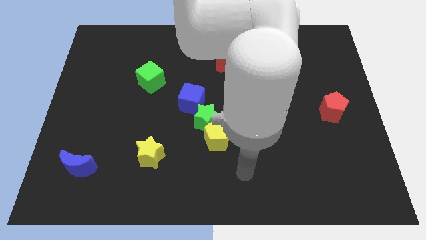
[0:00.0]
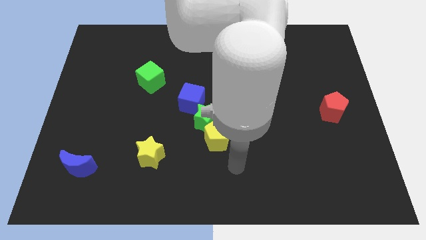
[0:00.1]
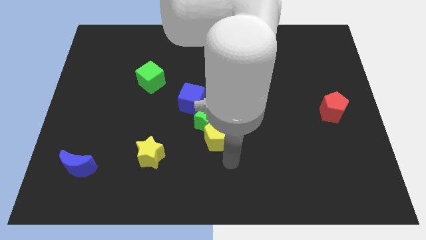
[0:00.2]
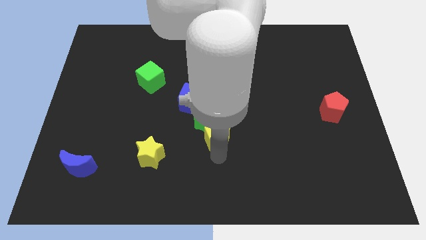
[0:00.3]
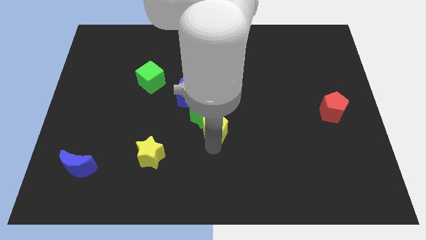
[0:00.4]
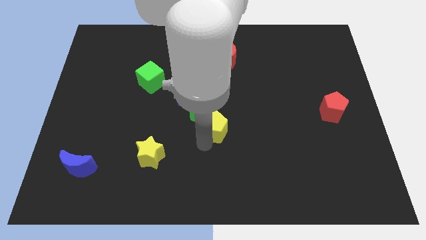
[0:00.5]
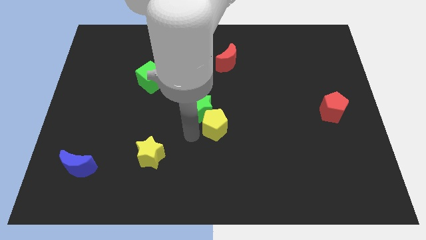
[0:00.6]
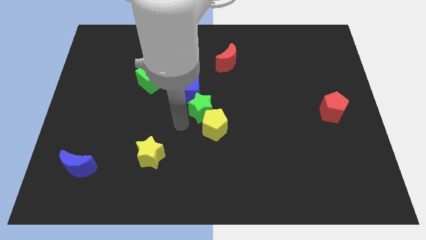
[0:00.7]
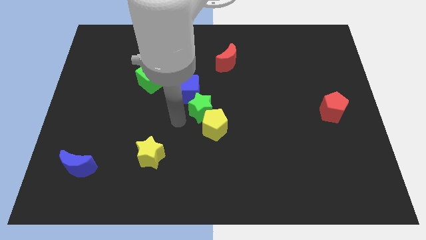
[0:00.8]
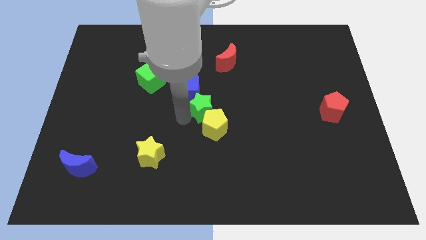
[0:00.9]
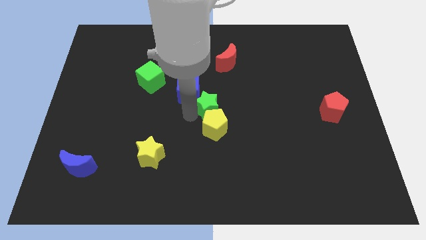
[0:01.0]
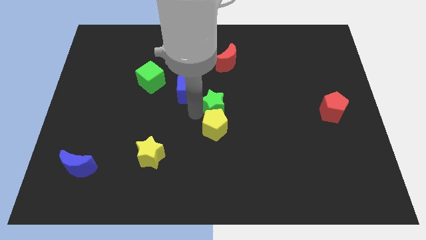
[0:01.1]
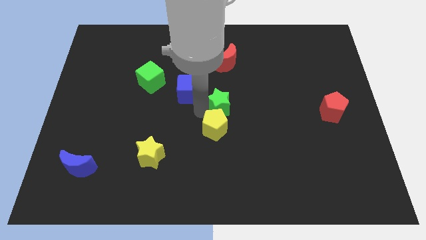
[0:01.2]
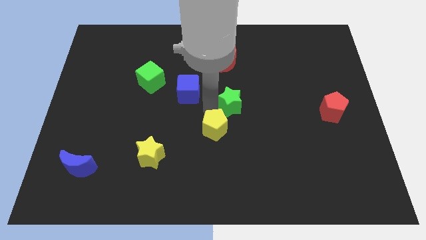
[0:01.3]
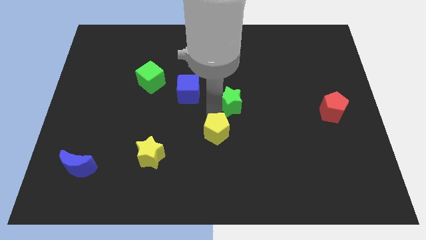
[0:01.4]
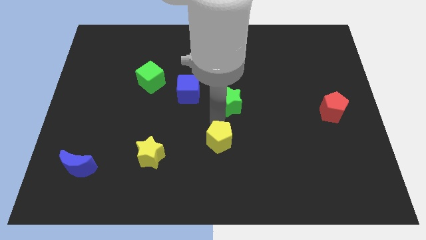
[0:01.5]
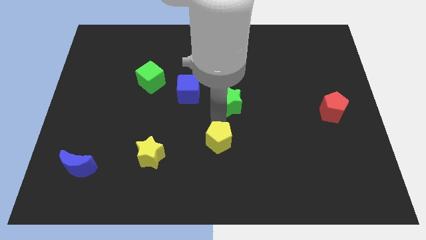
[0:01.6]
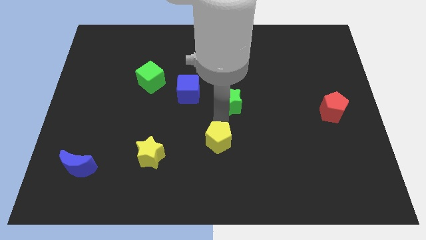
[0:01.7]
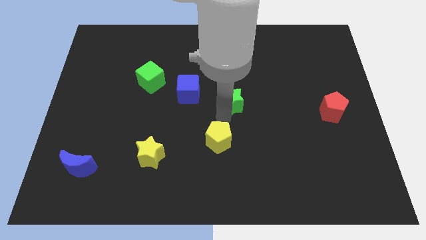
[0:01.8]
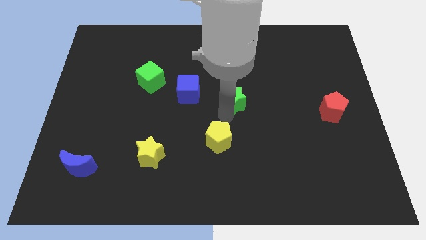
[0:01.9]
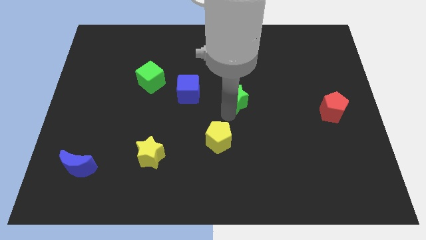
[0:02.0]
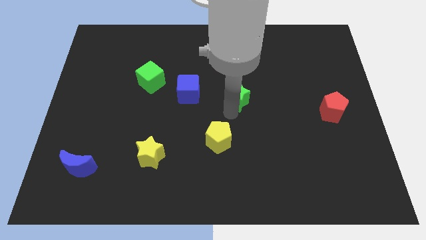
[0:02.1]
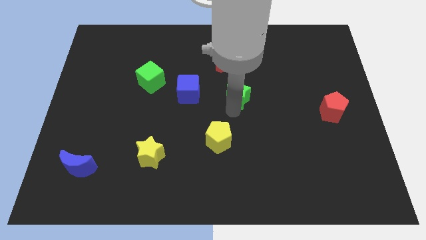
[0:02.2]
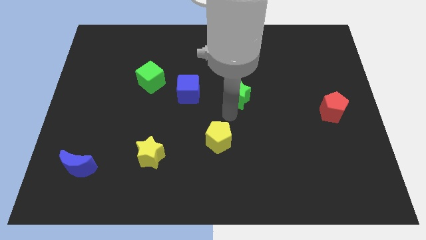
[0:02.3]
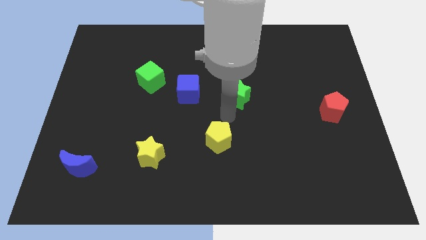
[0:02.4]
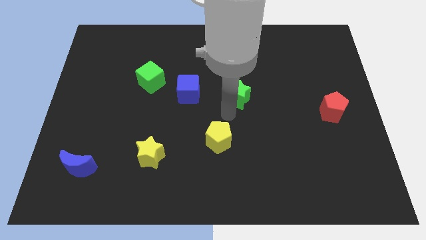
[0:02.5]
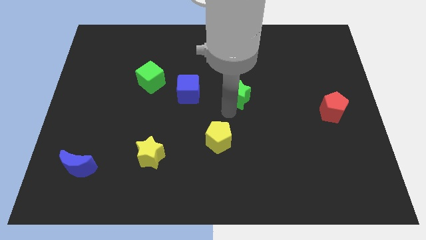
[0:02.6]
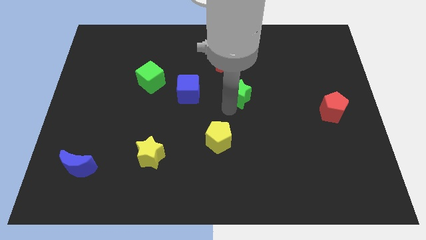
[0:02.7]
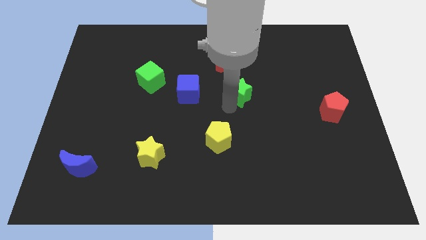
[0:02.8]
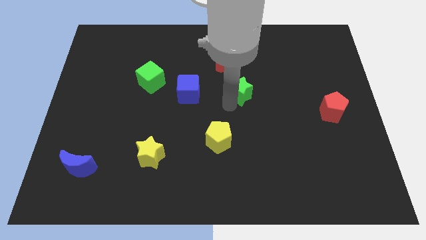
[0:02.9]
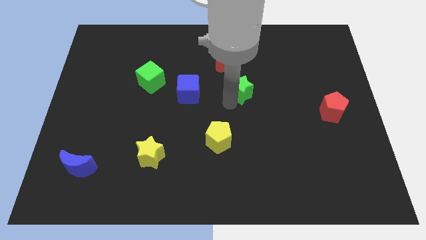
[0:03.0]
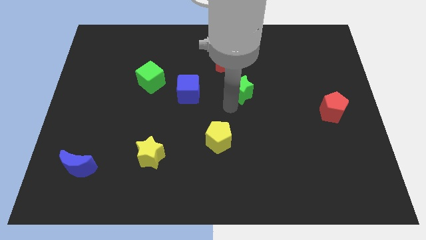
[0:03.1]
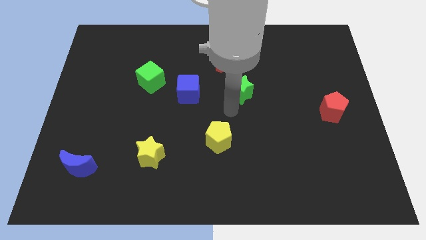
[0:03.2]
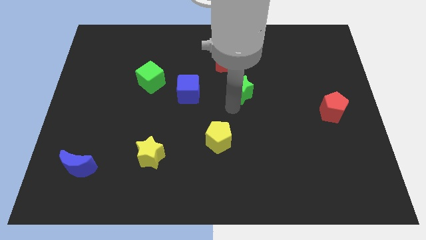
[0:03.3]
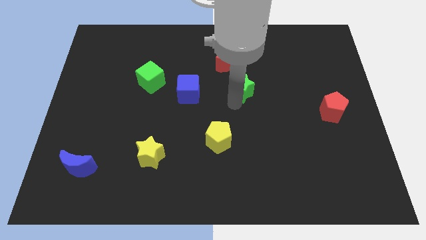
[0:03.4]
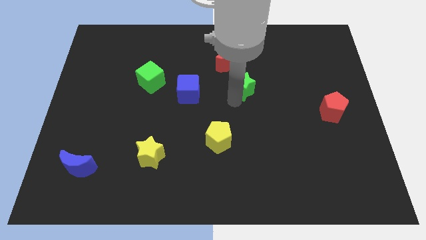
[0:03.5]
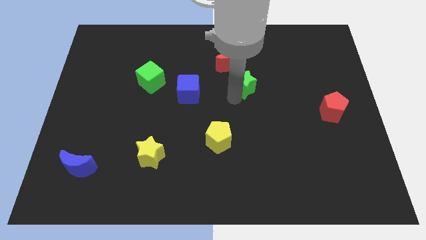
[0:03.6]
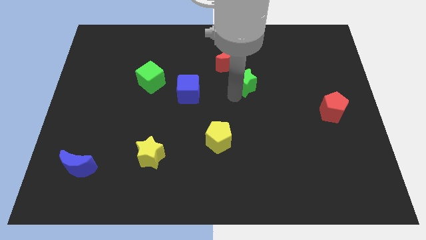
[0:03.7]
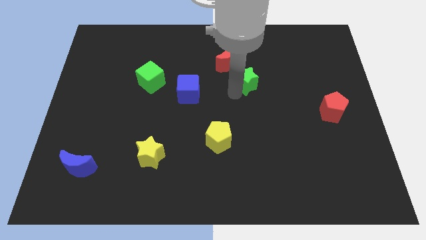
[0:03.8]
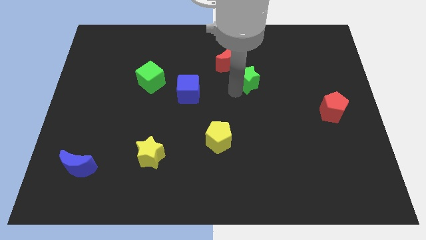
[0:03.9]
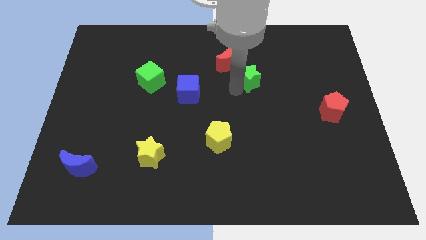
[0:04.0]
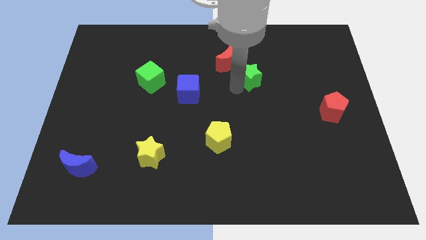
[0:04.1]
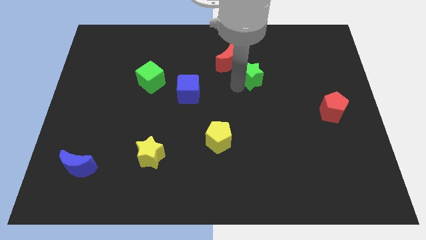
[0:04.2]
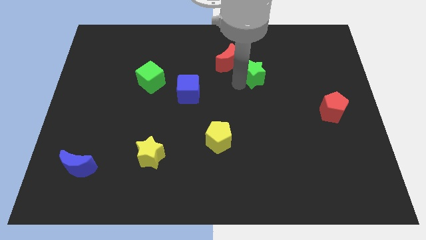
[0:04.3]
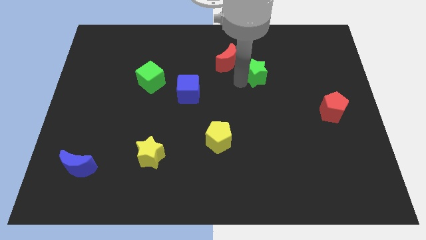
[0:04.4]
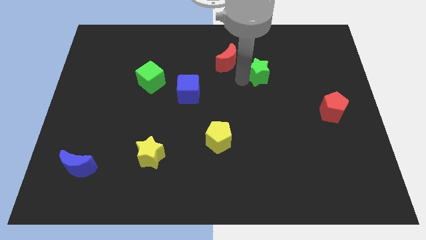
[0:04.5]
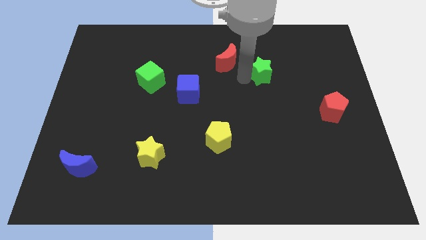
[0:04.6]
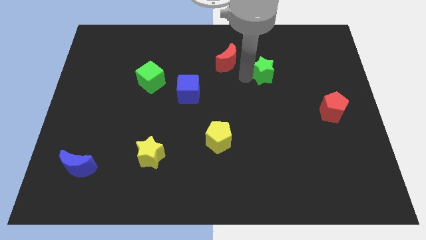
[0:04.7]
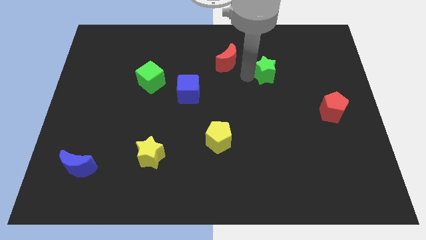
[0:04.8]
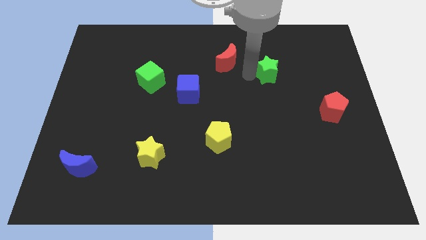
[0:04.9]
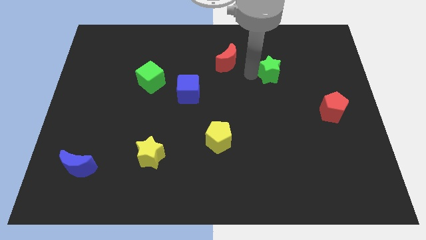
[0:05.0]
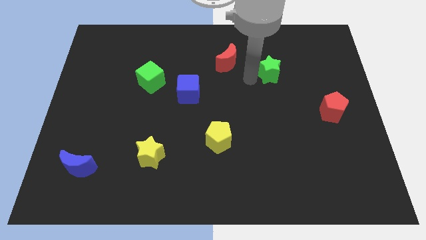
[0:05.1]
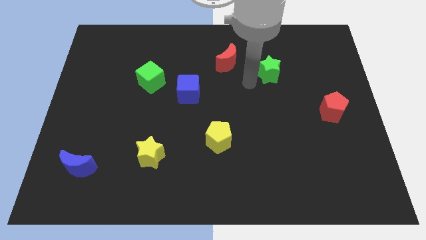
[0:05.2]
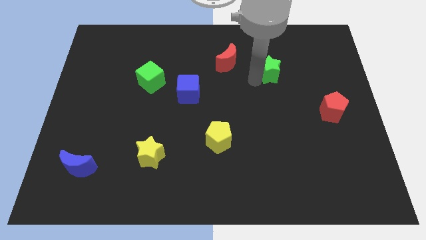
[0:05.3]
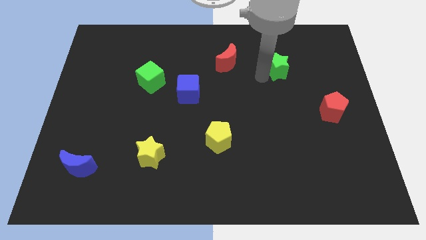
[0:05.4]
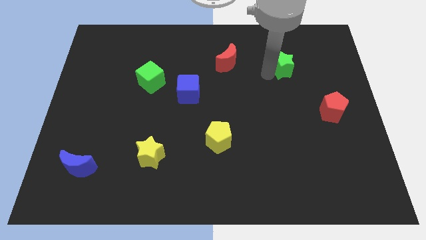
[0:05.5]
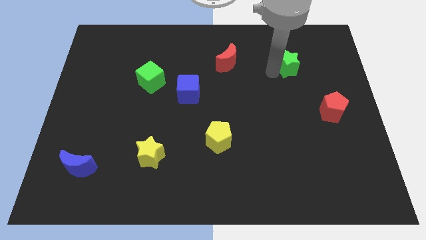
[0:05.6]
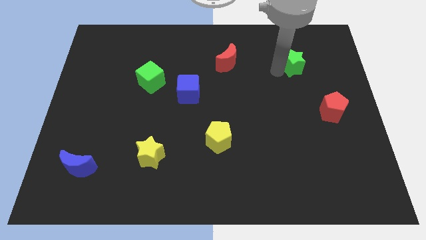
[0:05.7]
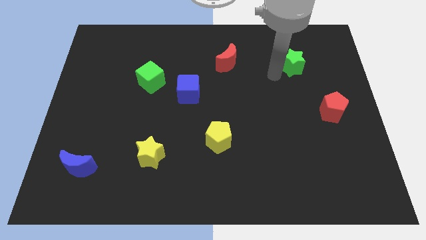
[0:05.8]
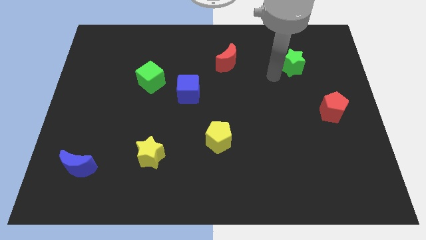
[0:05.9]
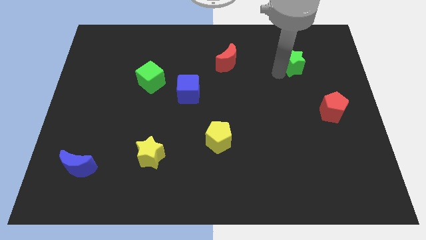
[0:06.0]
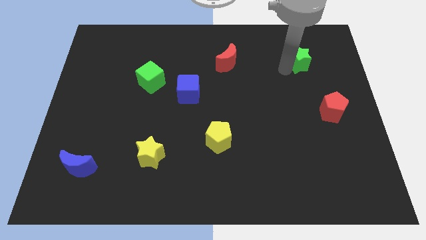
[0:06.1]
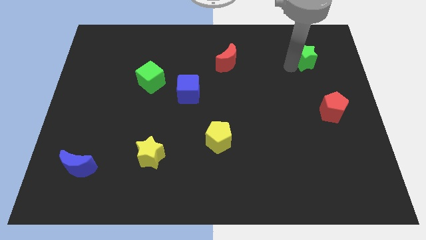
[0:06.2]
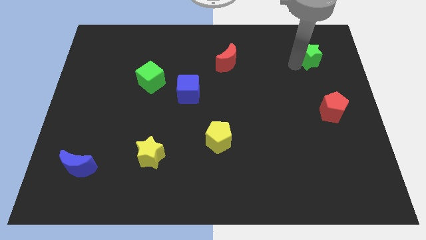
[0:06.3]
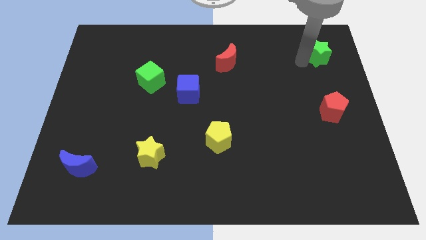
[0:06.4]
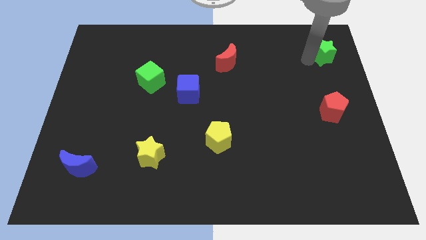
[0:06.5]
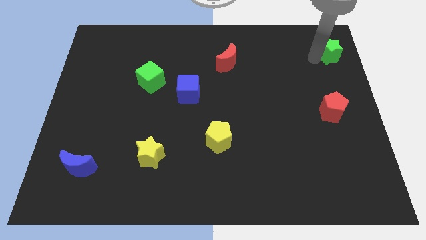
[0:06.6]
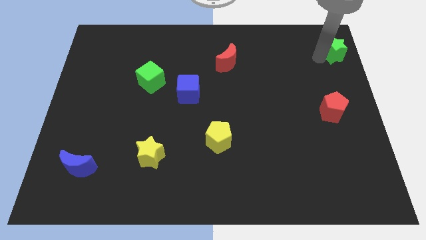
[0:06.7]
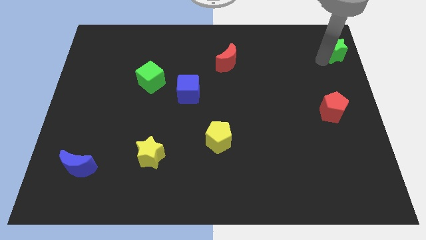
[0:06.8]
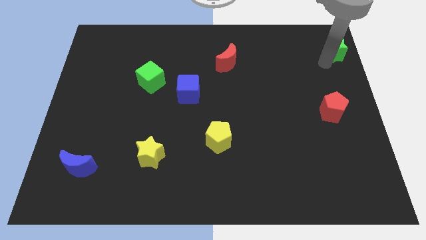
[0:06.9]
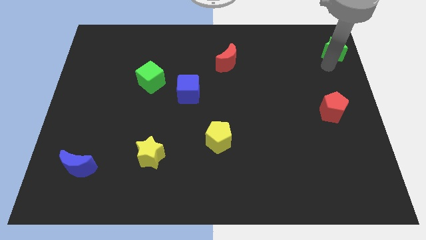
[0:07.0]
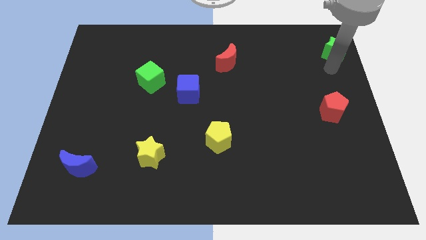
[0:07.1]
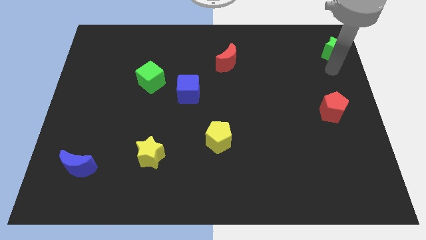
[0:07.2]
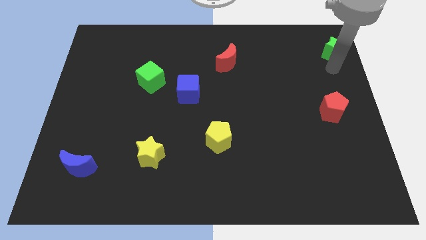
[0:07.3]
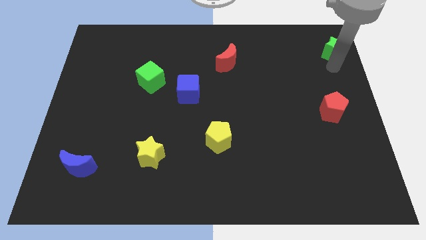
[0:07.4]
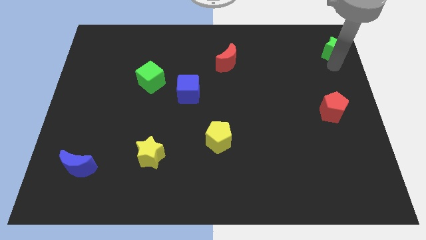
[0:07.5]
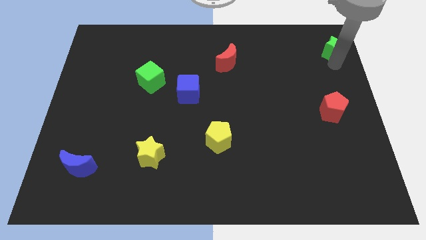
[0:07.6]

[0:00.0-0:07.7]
push the green star to the top right of the board
